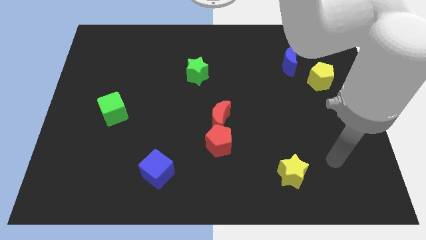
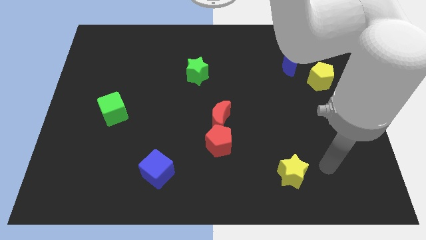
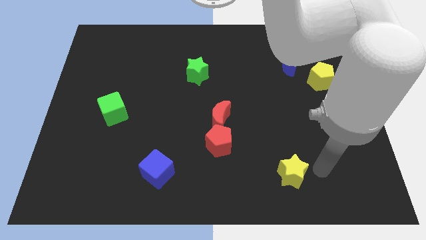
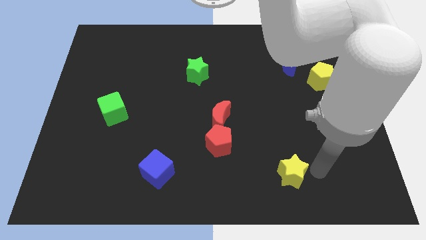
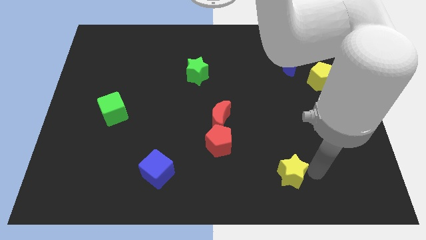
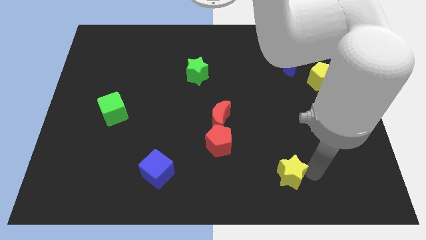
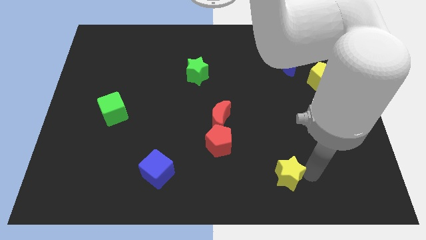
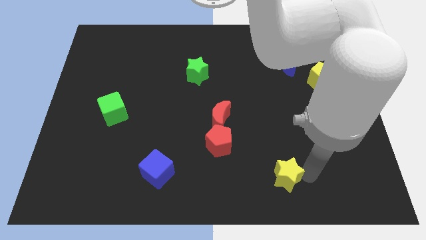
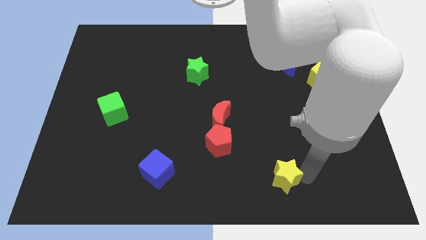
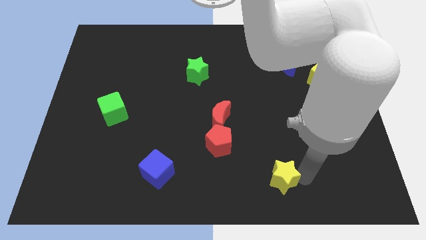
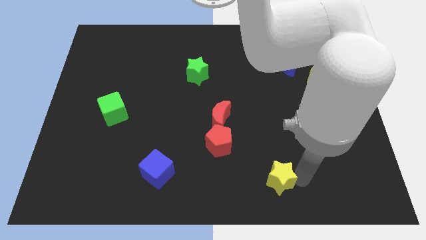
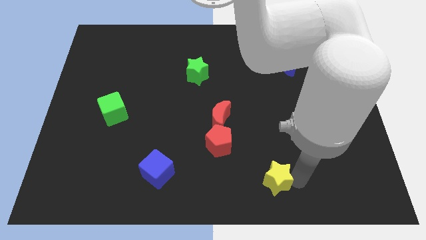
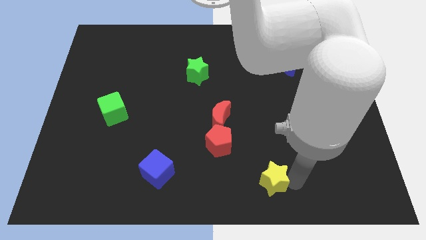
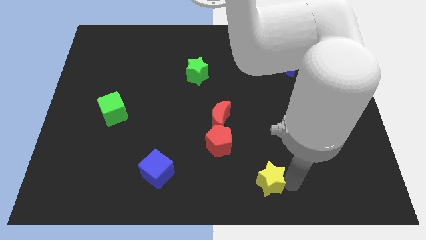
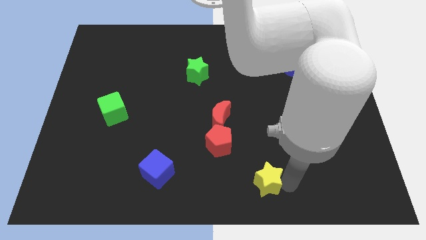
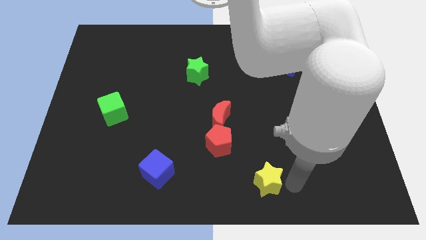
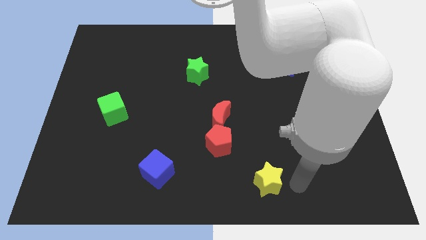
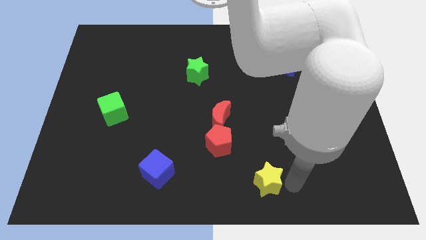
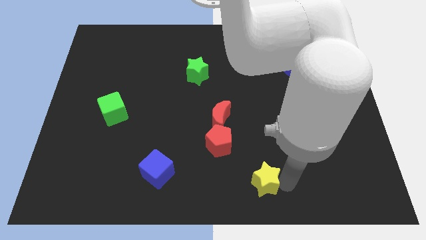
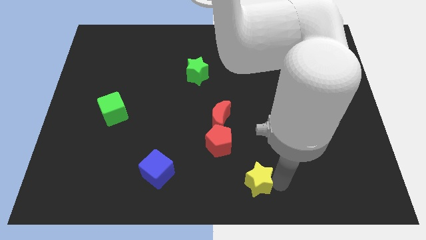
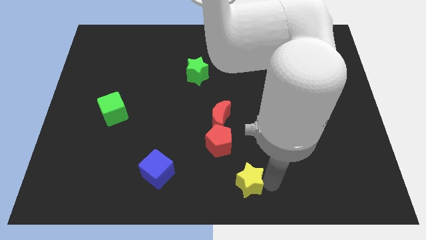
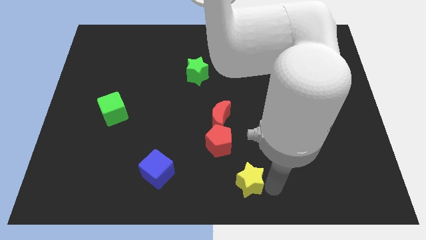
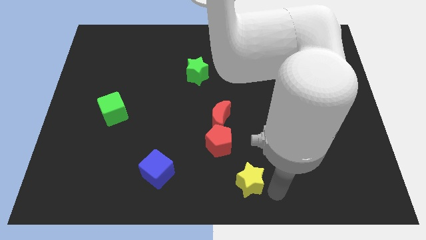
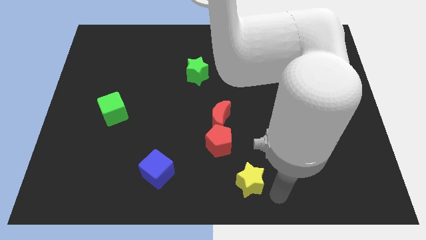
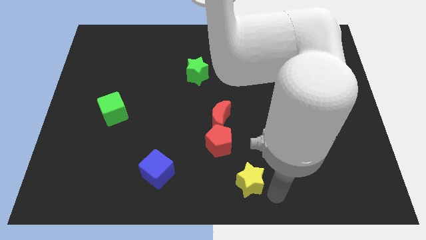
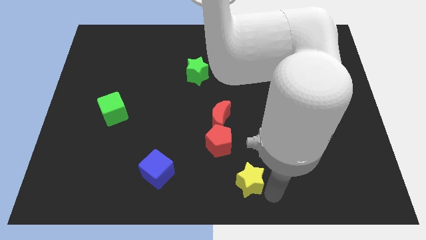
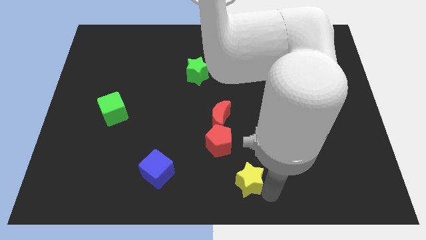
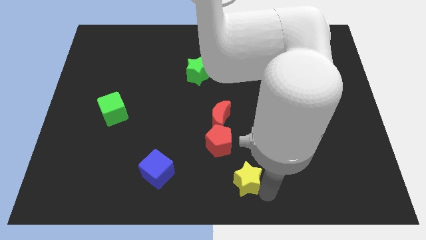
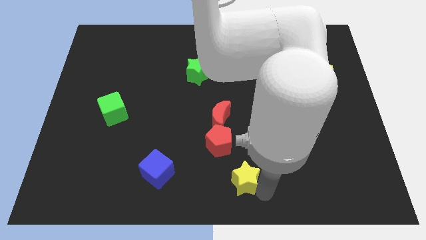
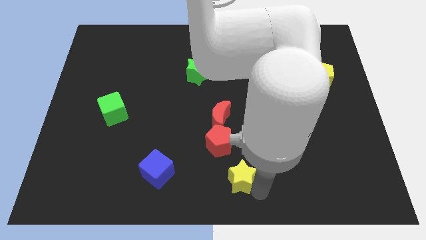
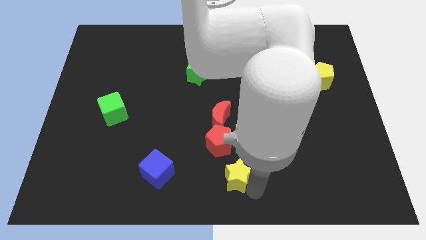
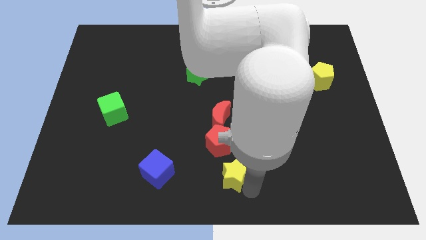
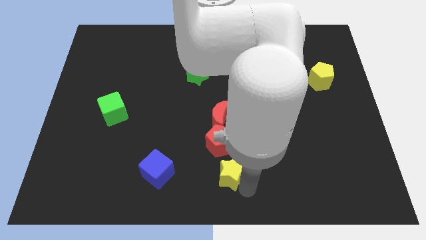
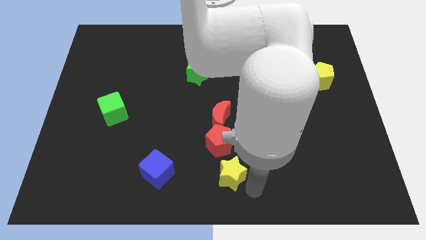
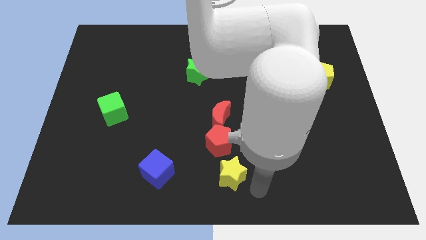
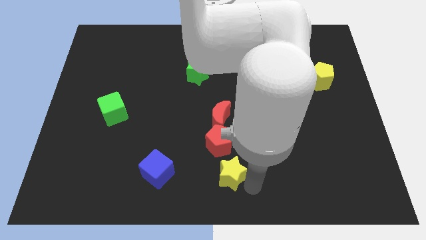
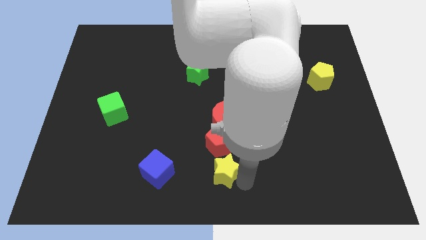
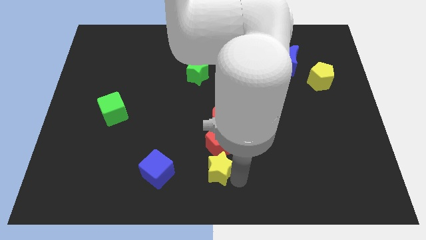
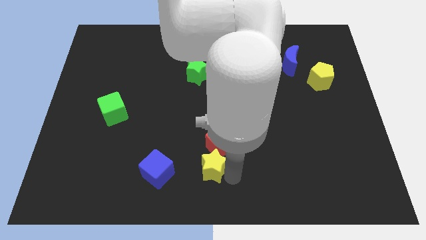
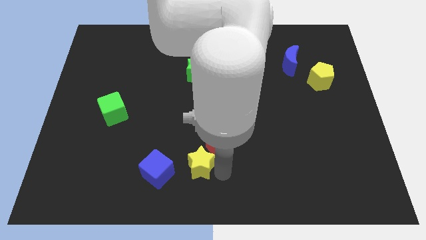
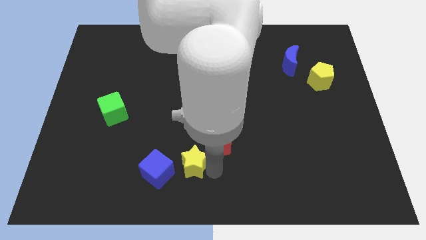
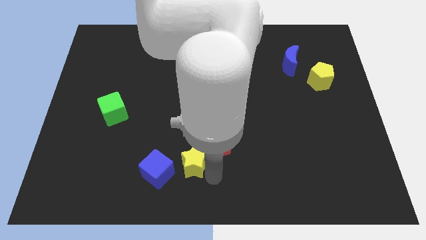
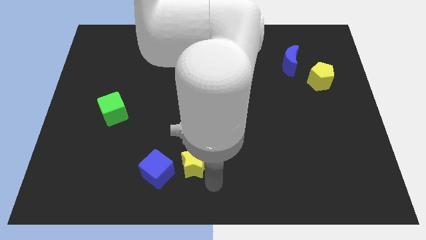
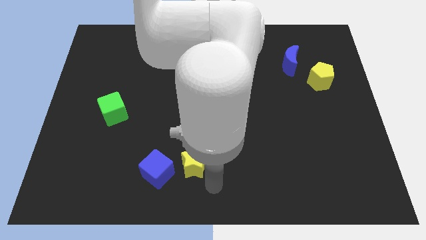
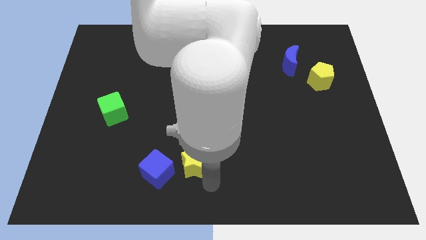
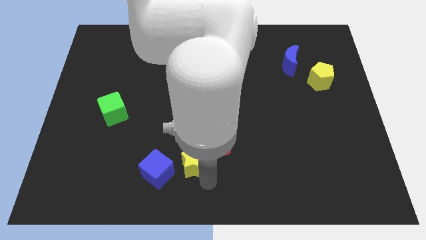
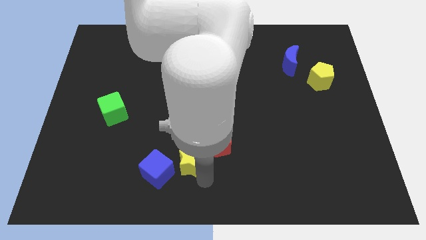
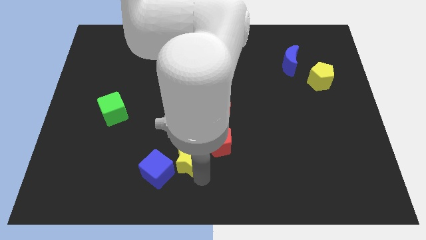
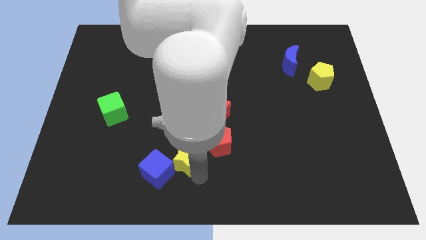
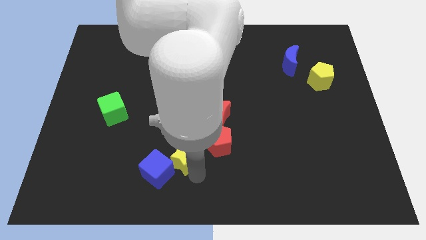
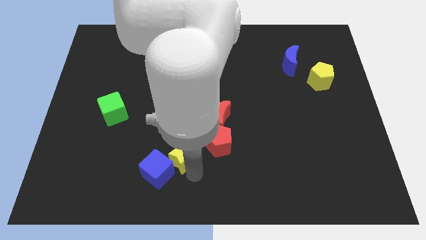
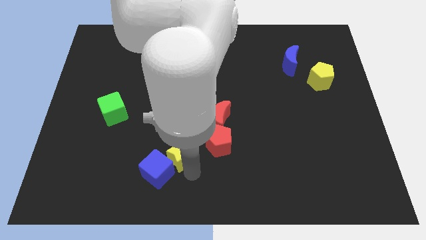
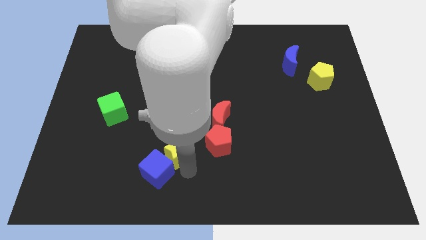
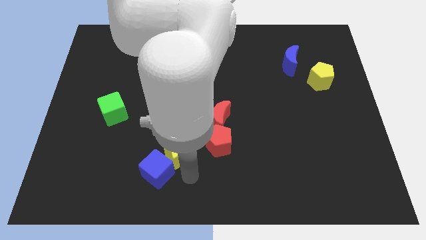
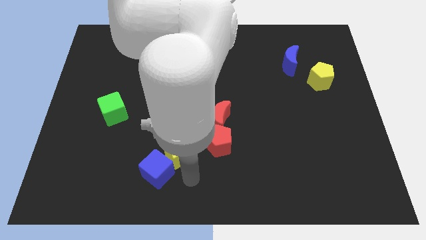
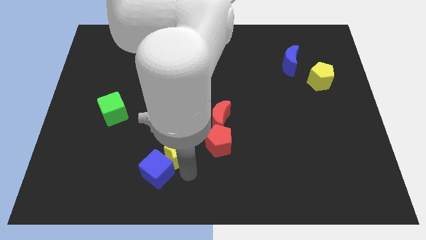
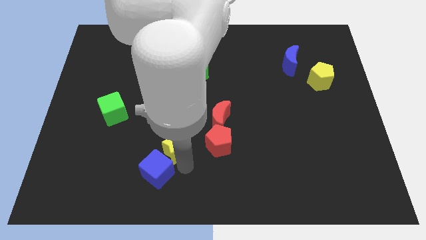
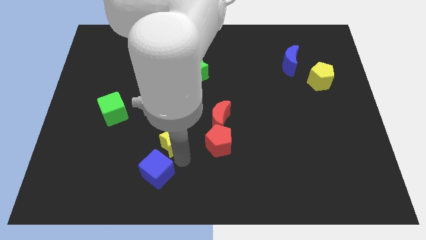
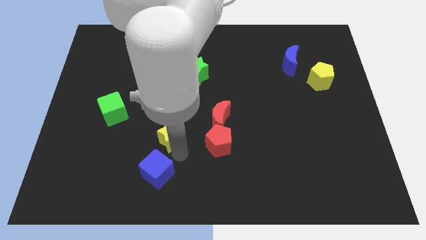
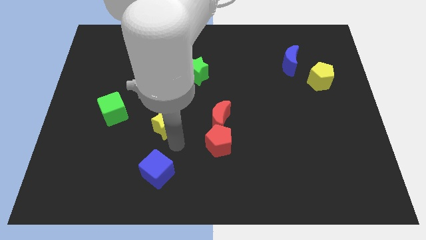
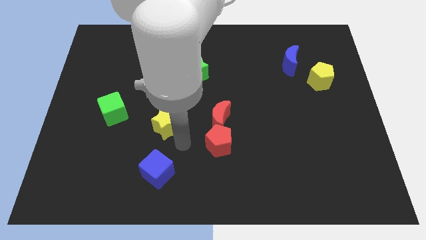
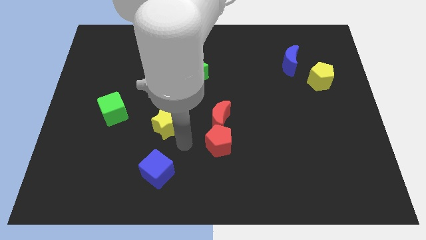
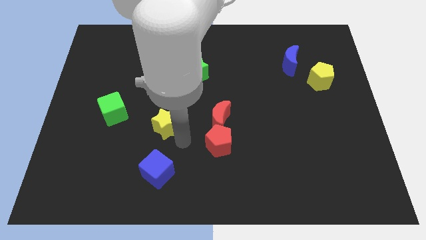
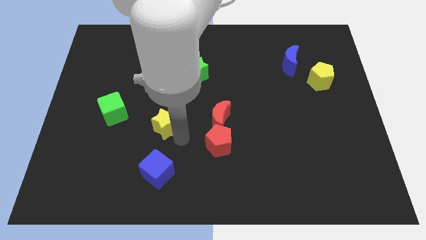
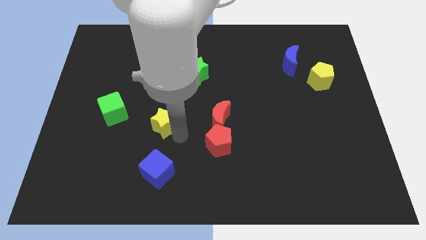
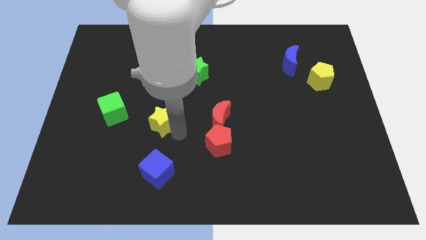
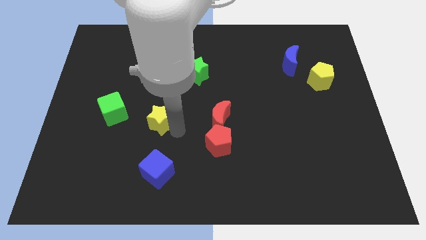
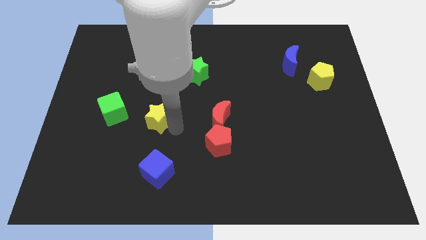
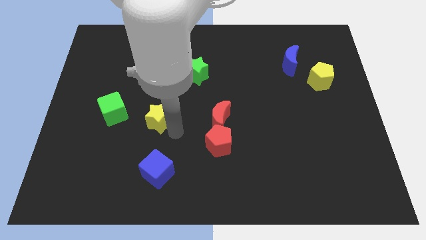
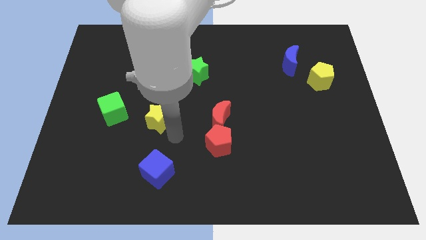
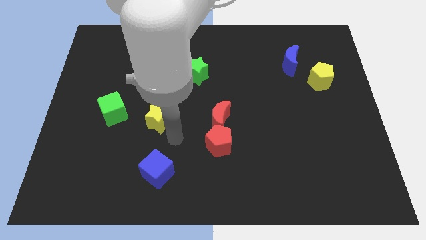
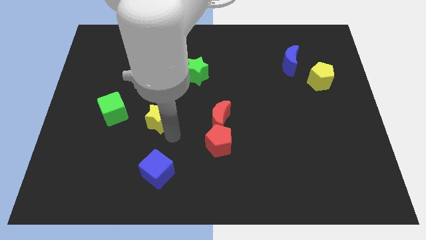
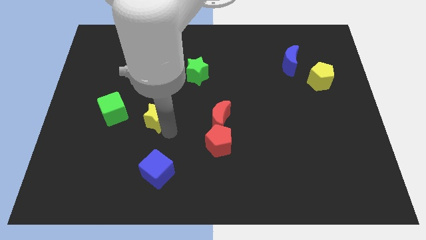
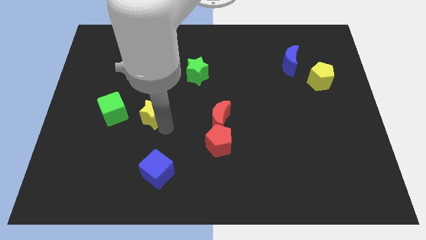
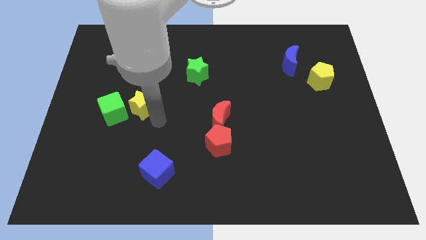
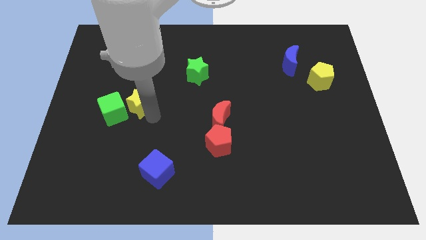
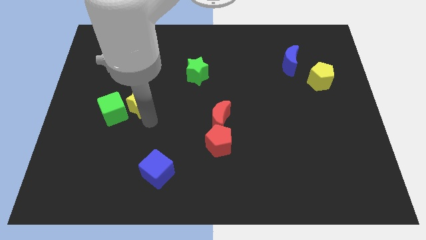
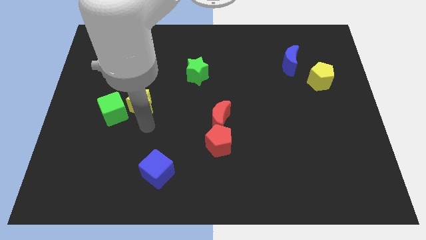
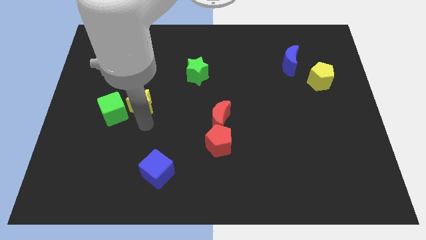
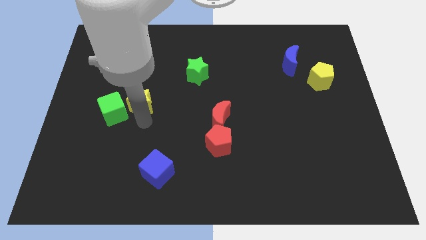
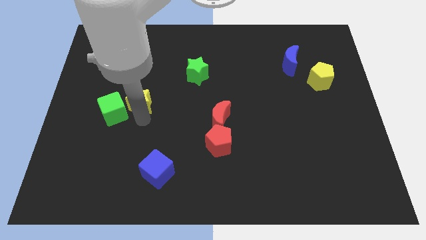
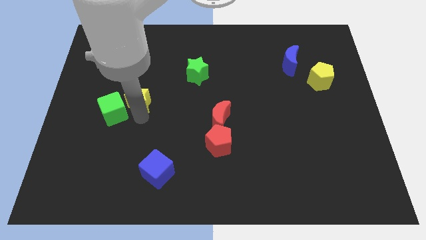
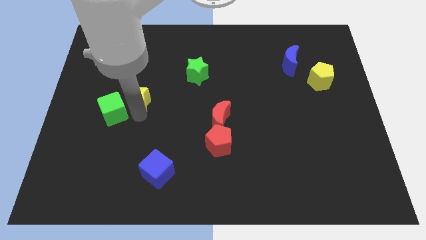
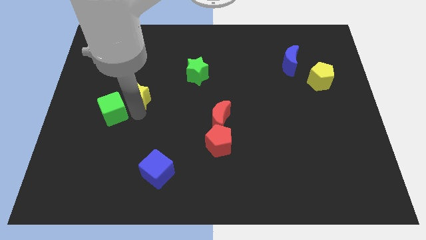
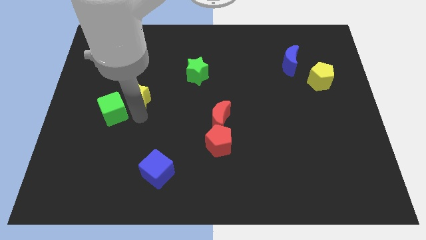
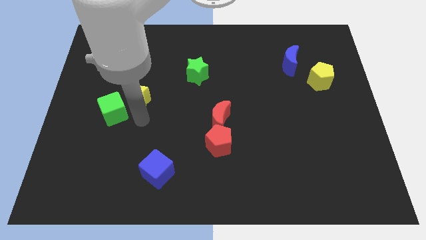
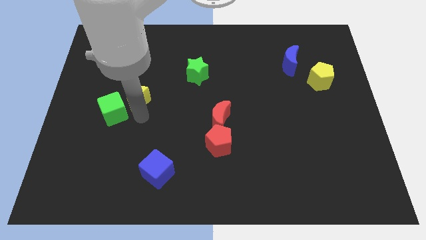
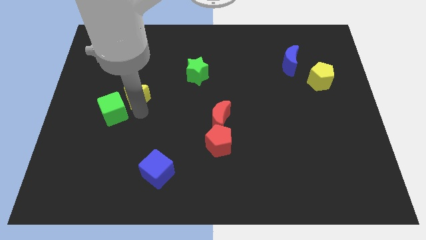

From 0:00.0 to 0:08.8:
put the yellow star to the top side of the green cube

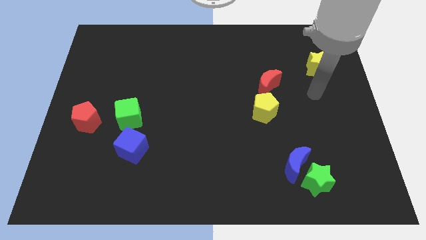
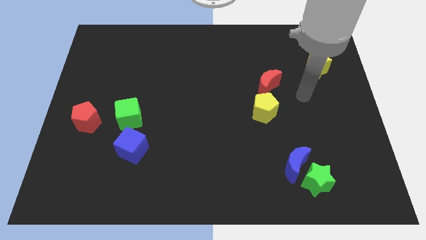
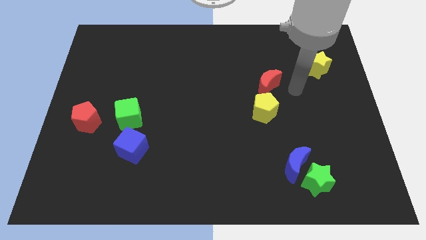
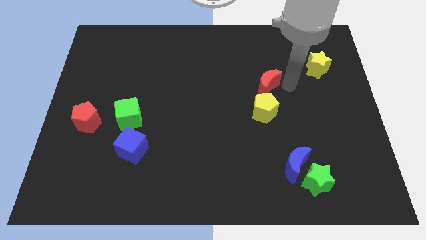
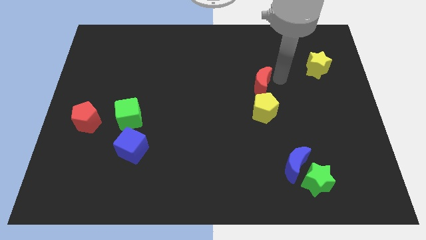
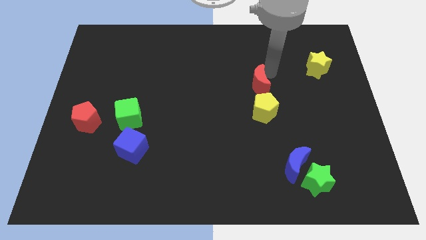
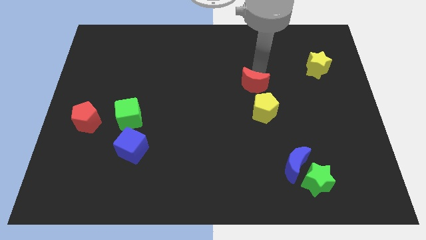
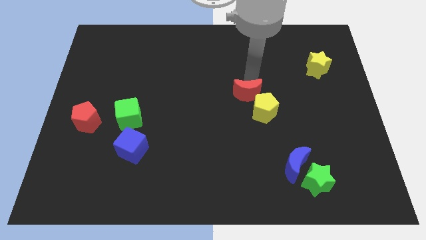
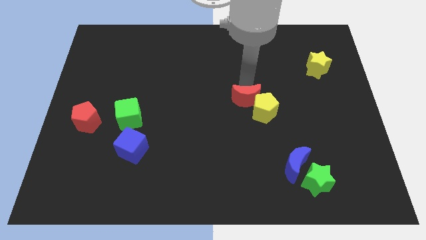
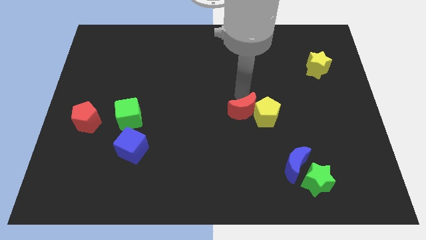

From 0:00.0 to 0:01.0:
slide the yellow pentagon above the blue moon
